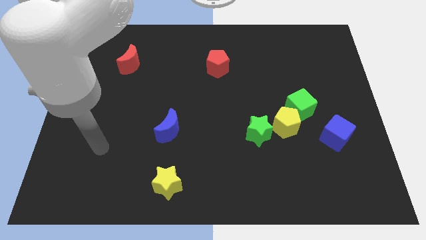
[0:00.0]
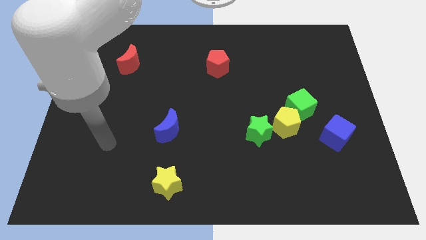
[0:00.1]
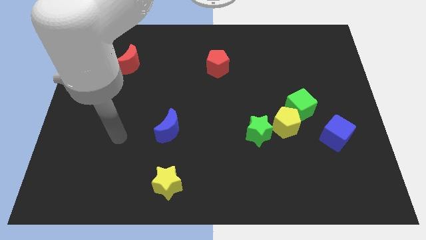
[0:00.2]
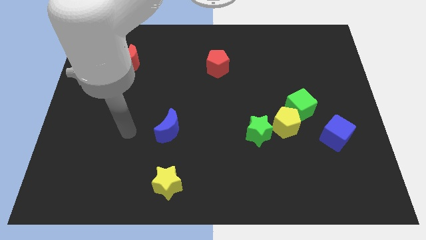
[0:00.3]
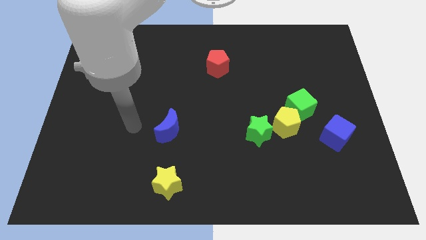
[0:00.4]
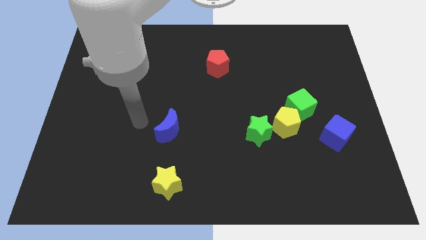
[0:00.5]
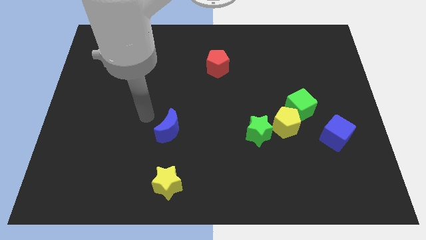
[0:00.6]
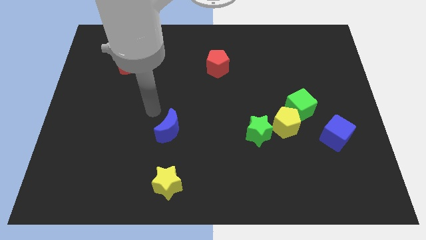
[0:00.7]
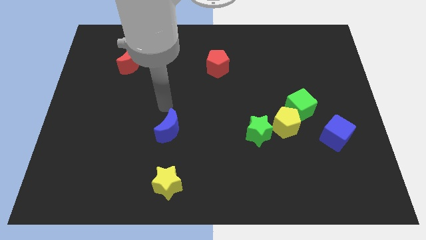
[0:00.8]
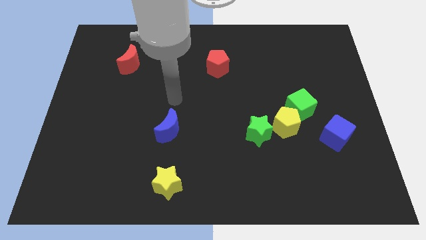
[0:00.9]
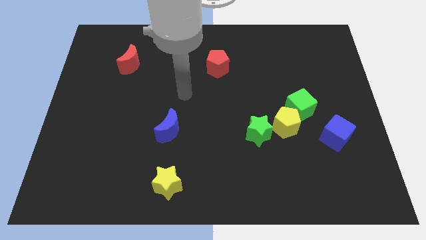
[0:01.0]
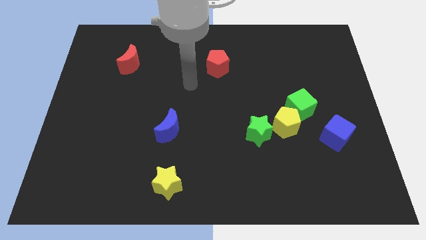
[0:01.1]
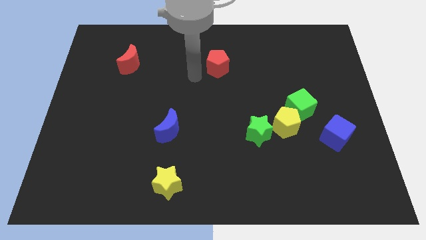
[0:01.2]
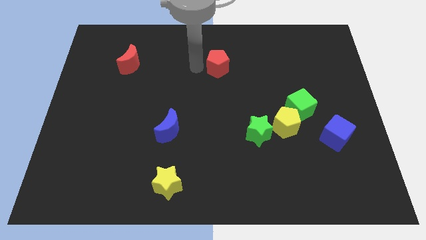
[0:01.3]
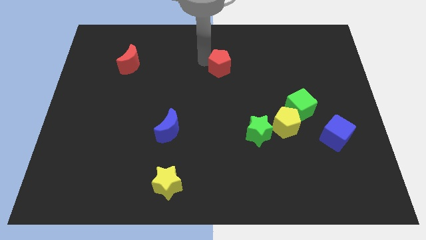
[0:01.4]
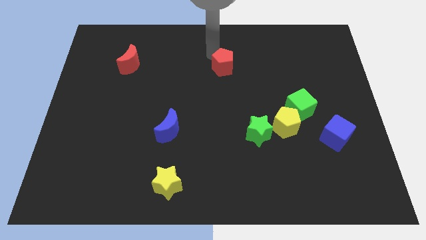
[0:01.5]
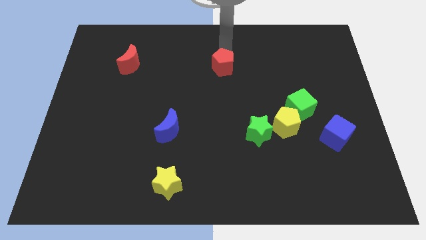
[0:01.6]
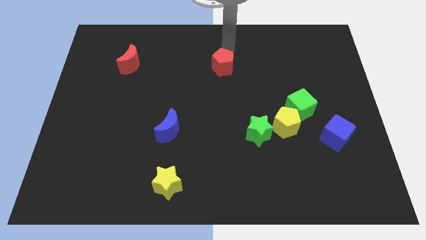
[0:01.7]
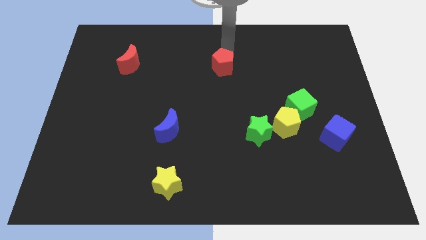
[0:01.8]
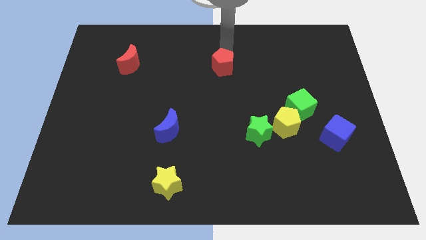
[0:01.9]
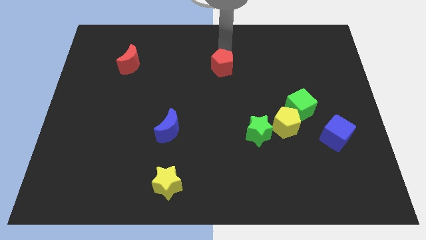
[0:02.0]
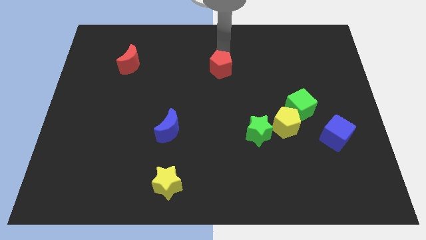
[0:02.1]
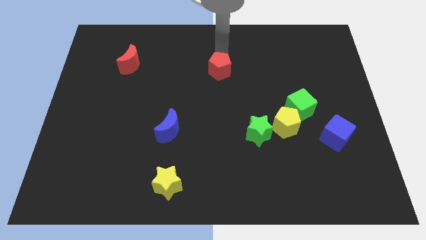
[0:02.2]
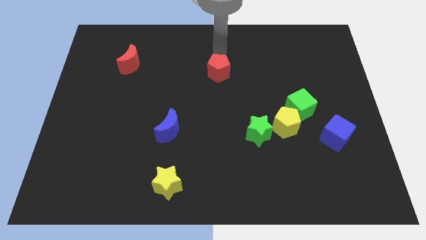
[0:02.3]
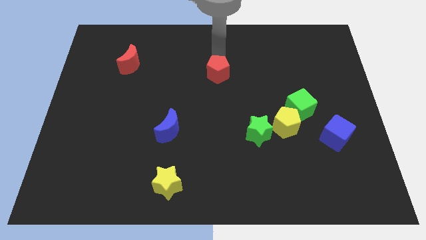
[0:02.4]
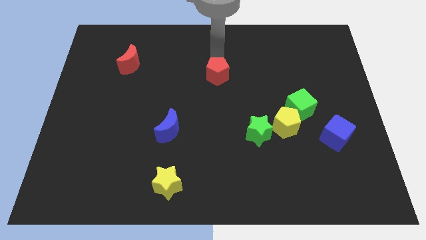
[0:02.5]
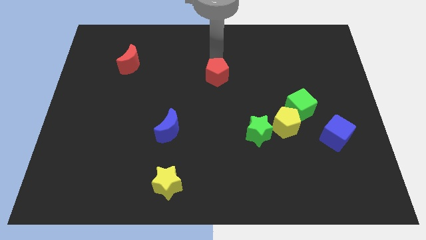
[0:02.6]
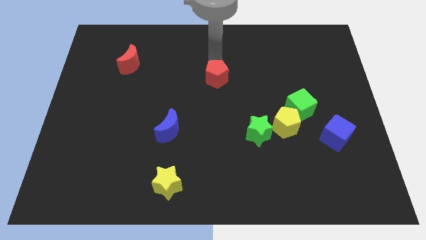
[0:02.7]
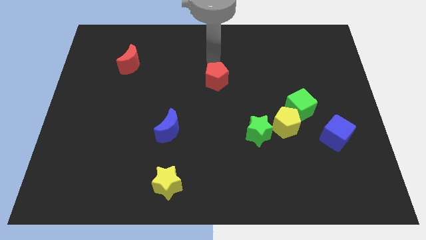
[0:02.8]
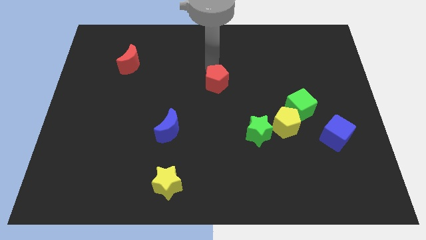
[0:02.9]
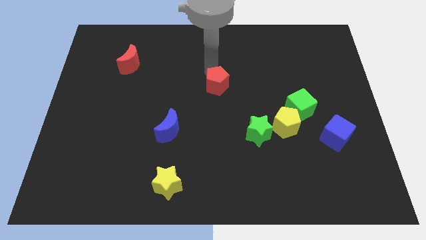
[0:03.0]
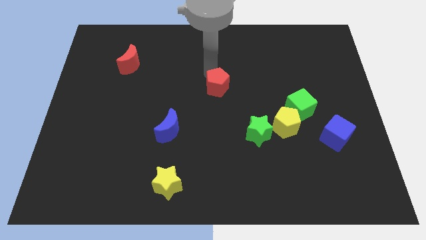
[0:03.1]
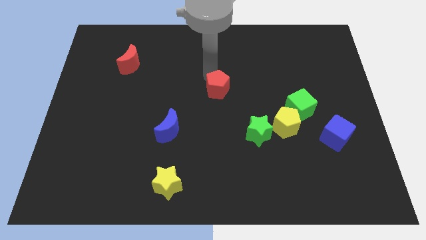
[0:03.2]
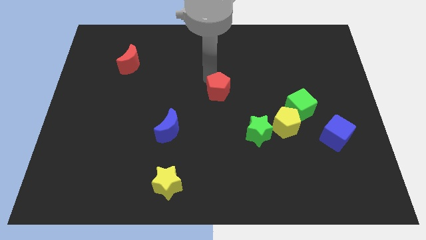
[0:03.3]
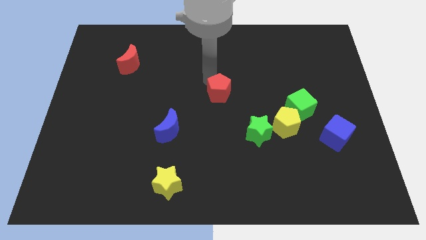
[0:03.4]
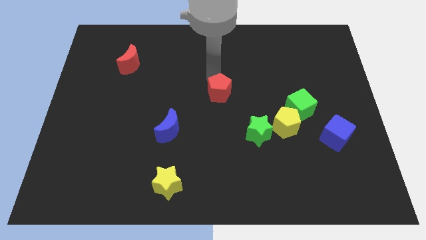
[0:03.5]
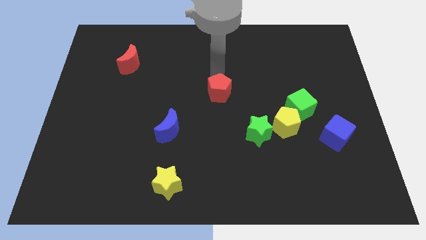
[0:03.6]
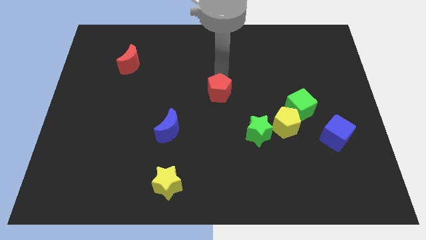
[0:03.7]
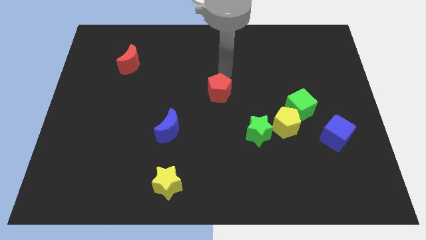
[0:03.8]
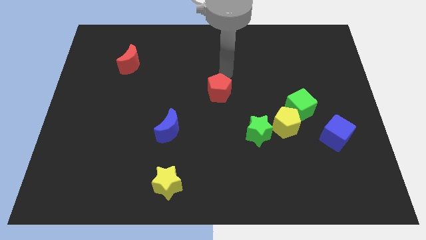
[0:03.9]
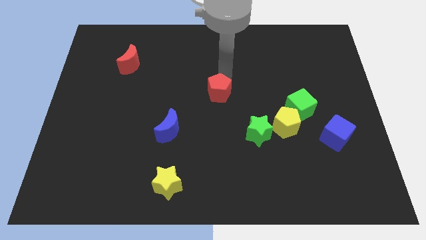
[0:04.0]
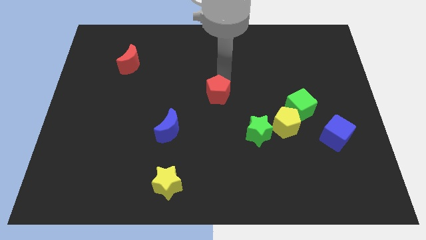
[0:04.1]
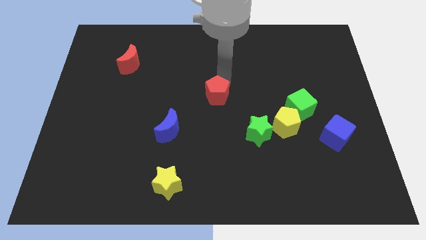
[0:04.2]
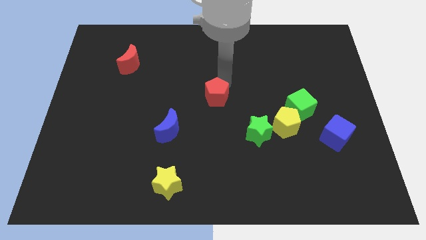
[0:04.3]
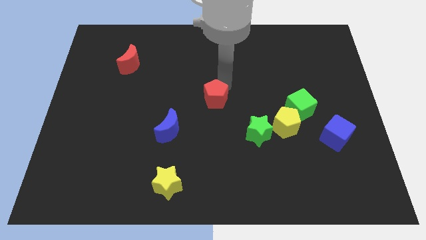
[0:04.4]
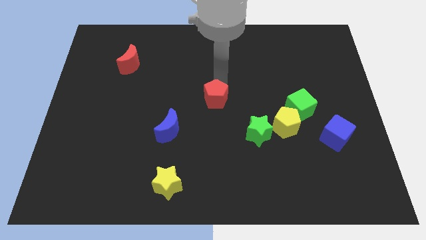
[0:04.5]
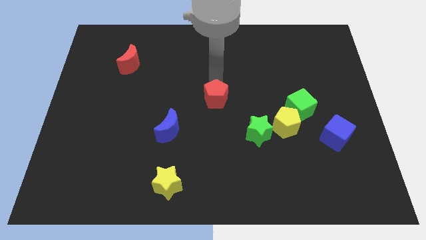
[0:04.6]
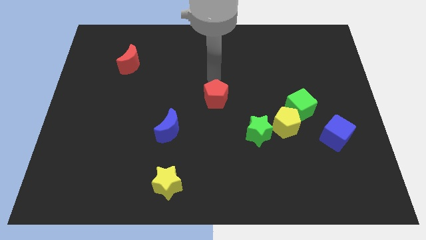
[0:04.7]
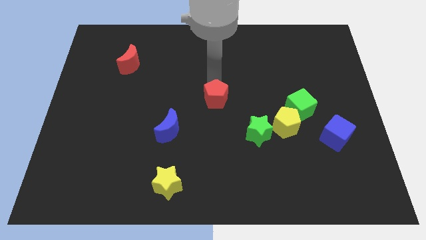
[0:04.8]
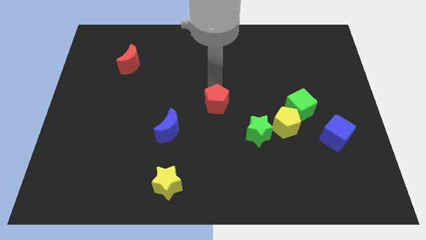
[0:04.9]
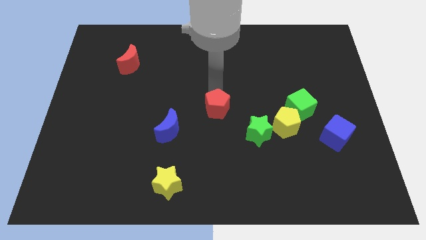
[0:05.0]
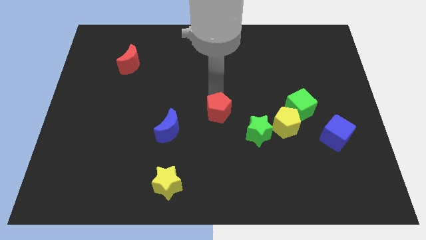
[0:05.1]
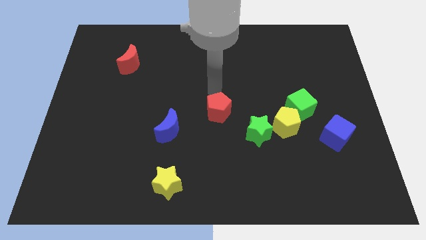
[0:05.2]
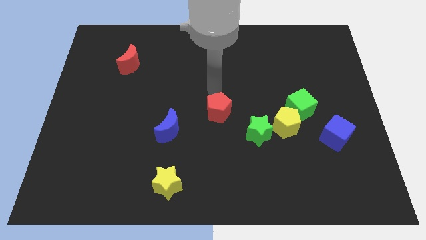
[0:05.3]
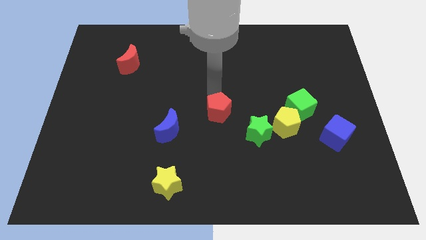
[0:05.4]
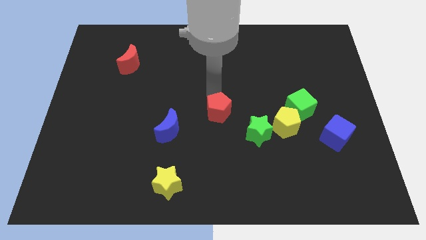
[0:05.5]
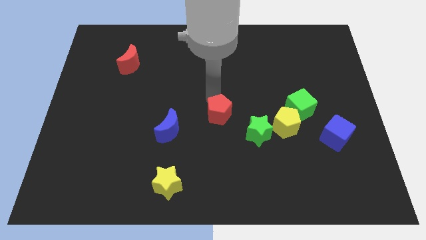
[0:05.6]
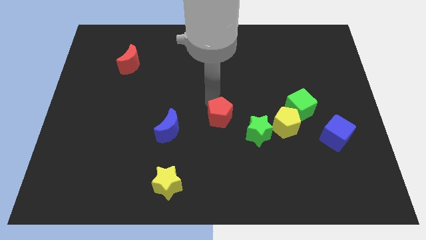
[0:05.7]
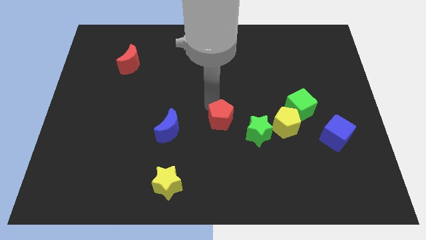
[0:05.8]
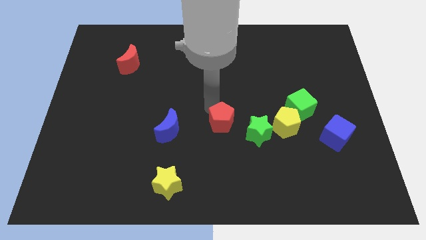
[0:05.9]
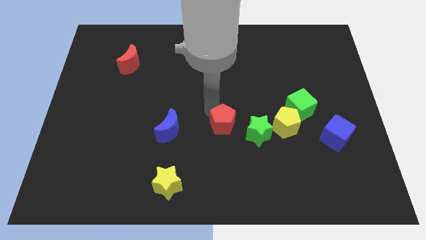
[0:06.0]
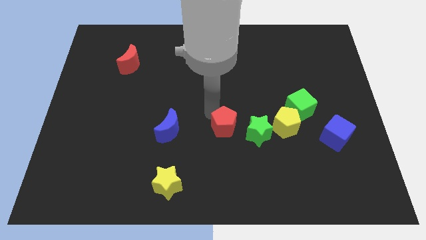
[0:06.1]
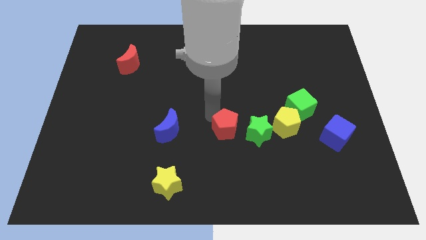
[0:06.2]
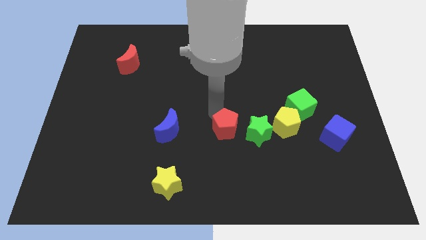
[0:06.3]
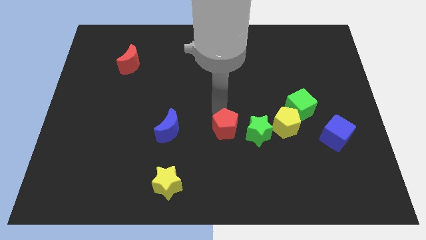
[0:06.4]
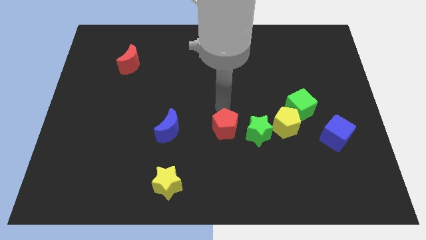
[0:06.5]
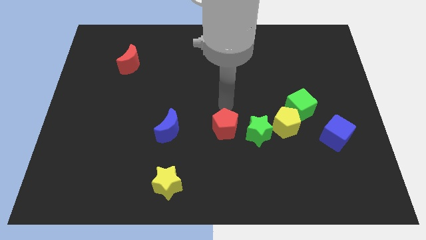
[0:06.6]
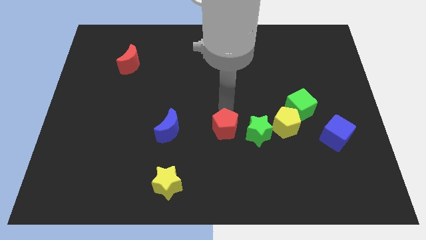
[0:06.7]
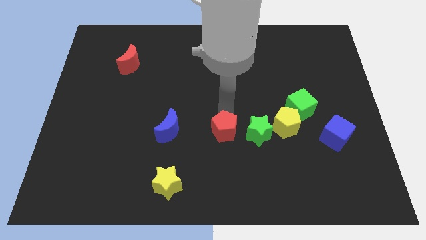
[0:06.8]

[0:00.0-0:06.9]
move the red pentagon down

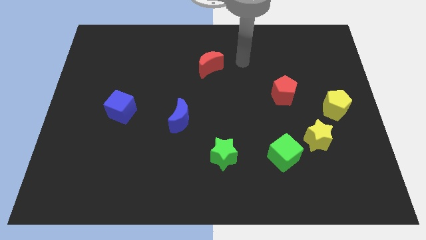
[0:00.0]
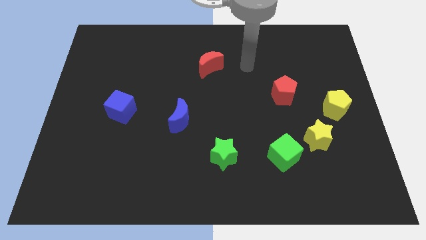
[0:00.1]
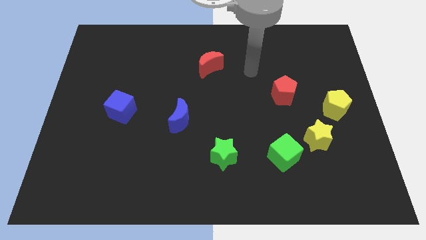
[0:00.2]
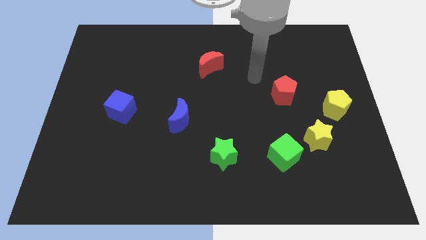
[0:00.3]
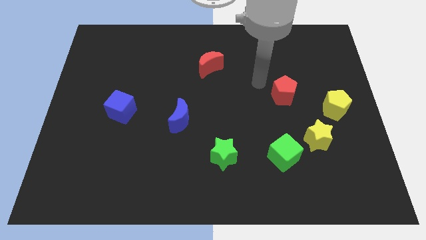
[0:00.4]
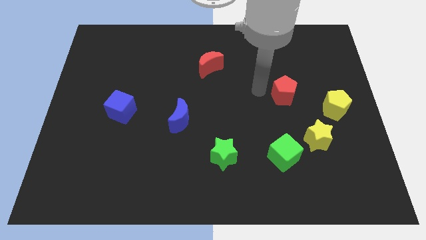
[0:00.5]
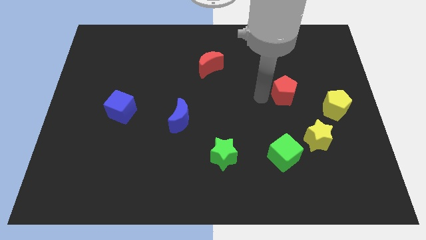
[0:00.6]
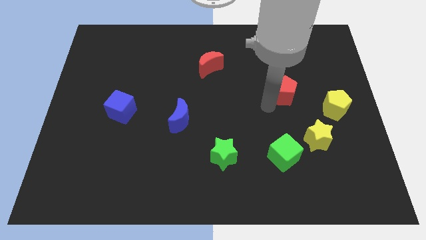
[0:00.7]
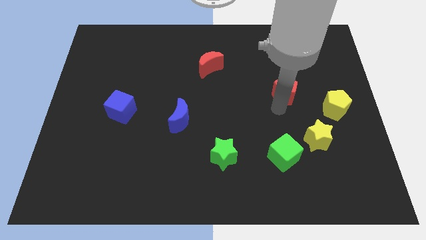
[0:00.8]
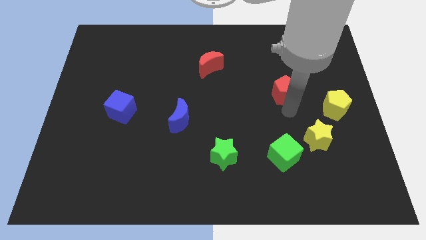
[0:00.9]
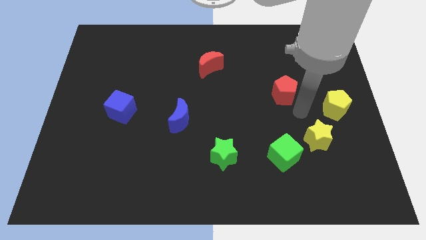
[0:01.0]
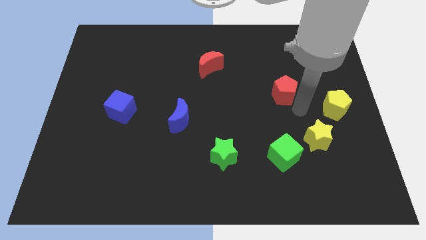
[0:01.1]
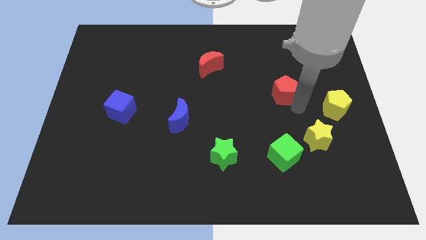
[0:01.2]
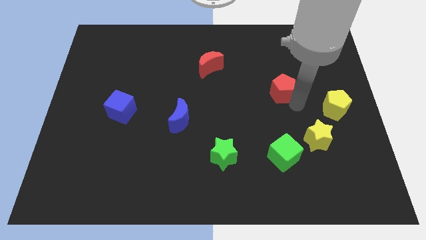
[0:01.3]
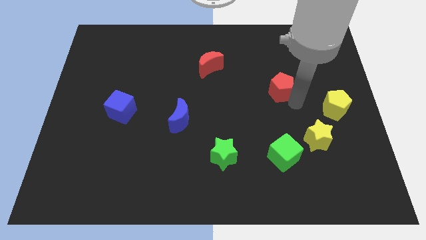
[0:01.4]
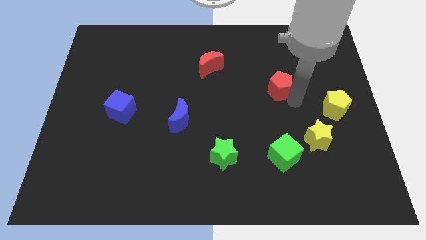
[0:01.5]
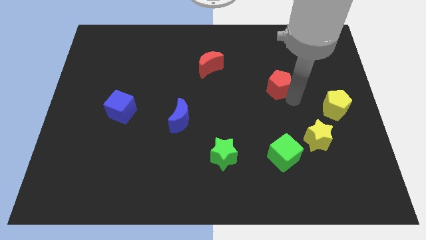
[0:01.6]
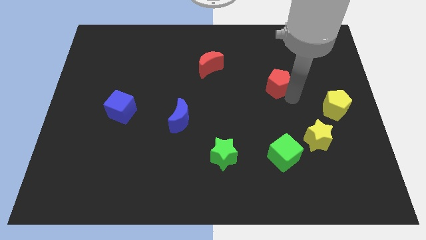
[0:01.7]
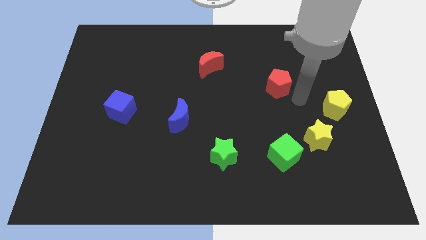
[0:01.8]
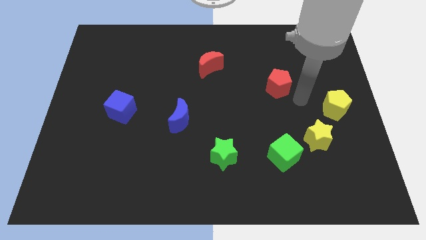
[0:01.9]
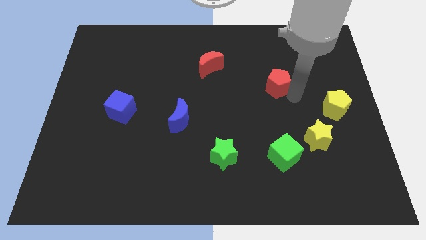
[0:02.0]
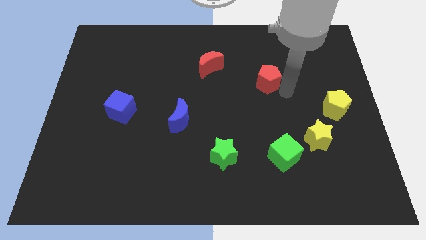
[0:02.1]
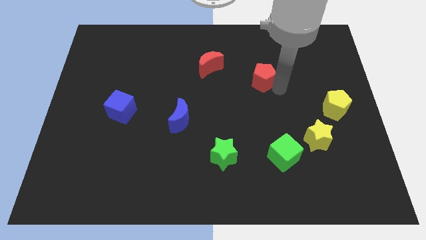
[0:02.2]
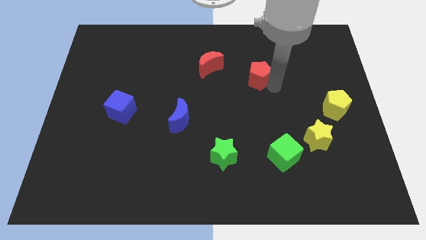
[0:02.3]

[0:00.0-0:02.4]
move the red pentagon up and to the left a bit
